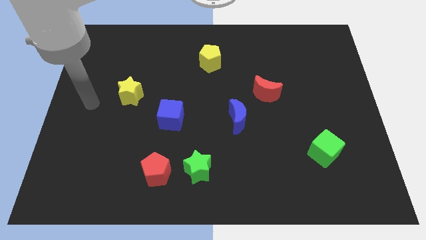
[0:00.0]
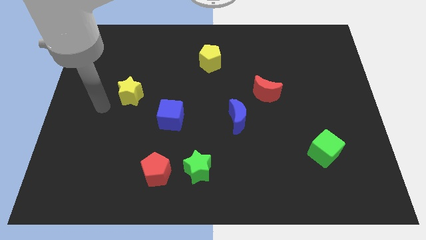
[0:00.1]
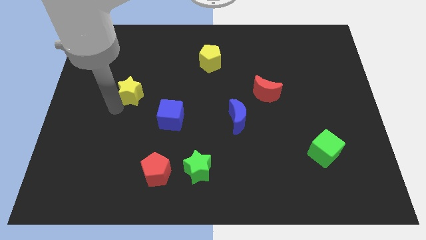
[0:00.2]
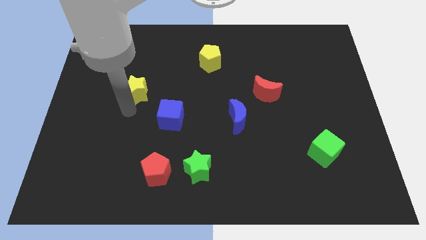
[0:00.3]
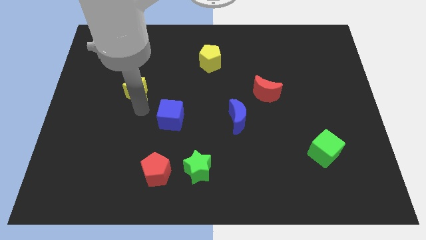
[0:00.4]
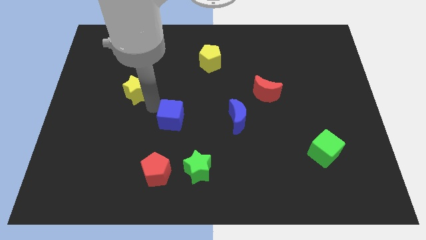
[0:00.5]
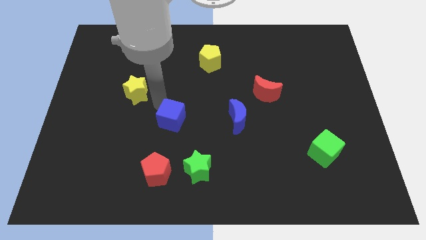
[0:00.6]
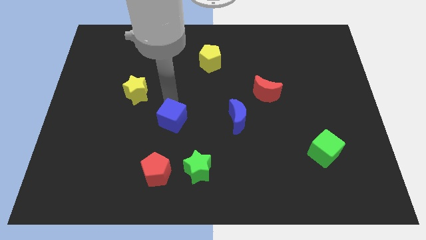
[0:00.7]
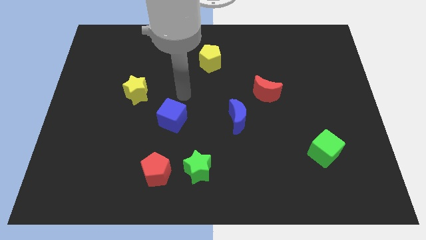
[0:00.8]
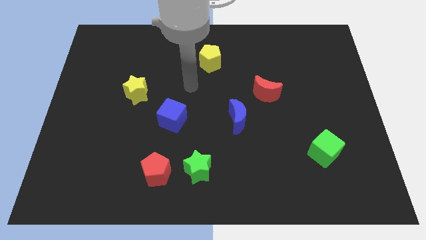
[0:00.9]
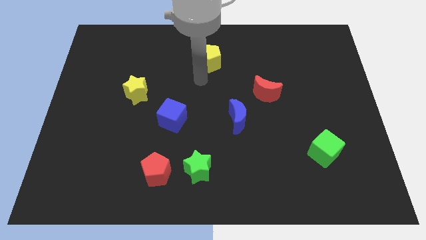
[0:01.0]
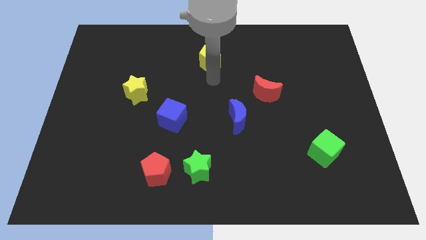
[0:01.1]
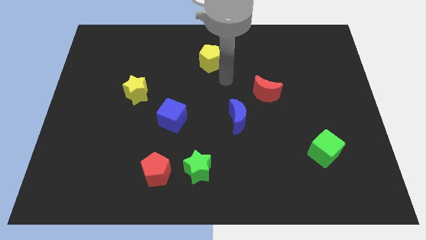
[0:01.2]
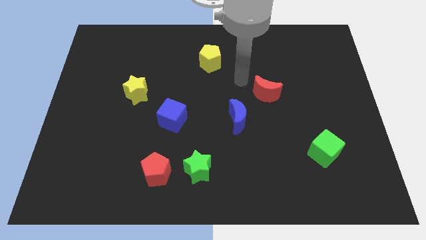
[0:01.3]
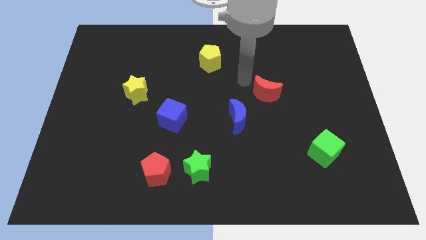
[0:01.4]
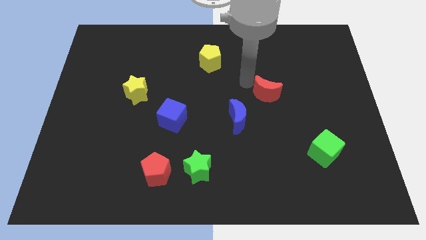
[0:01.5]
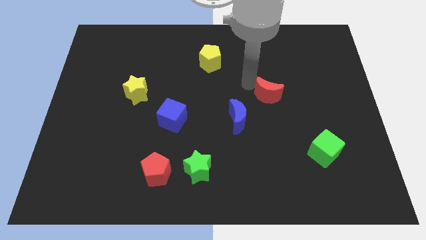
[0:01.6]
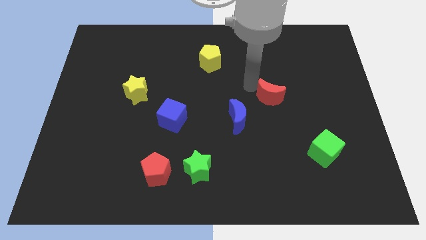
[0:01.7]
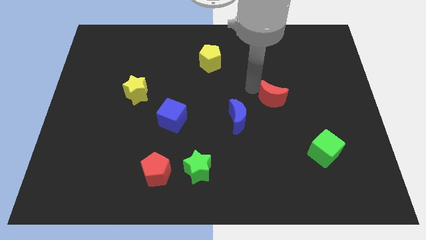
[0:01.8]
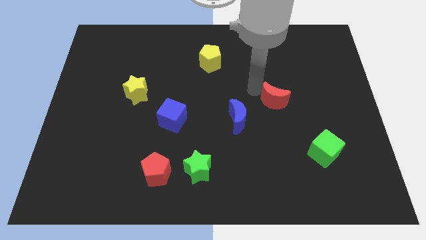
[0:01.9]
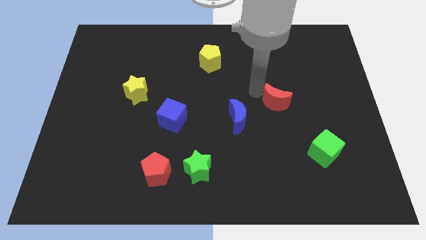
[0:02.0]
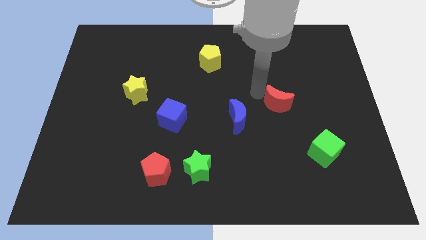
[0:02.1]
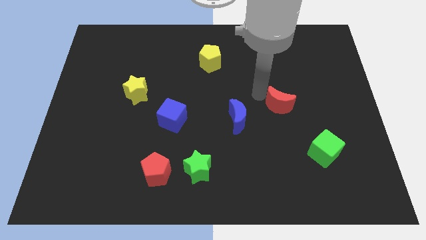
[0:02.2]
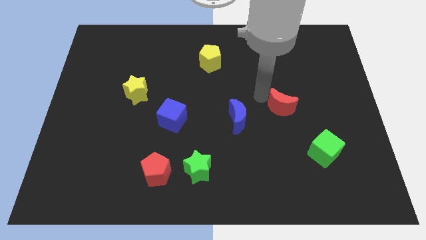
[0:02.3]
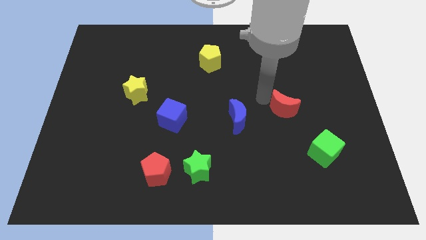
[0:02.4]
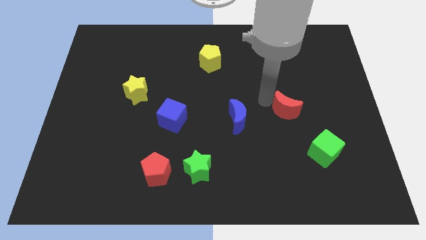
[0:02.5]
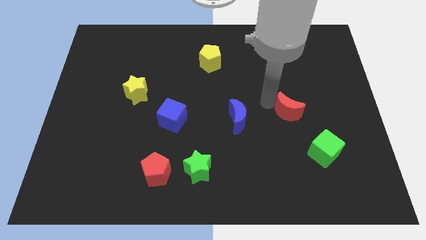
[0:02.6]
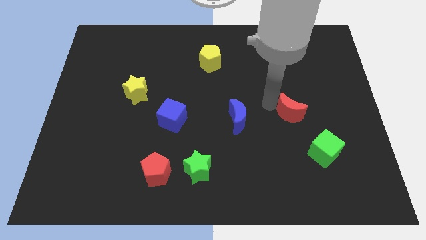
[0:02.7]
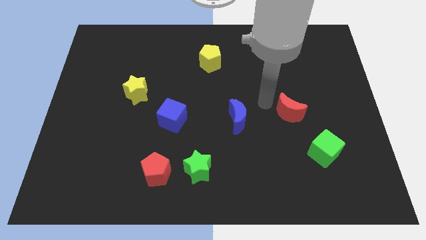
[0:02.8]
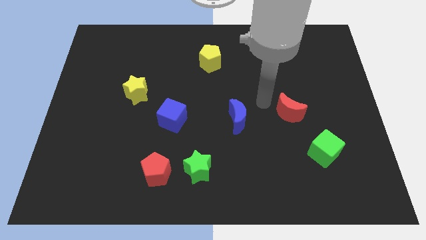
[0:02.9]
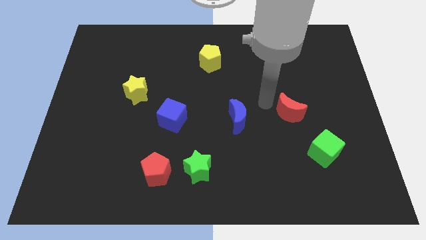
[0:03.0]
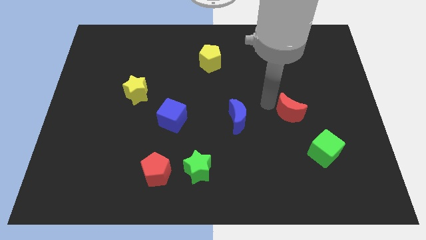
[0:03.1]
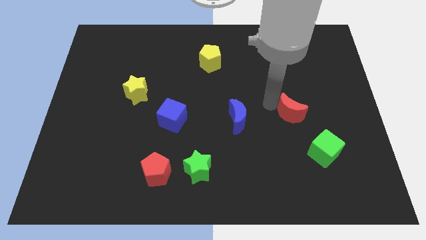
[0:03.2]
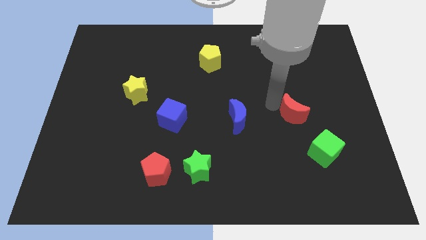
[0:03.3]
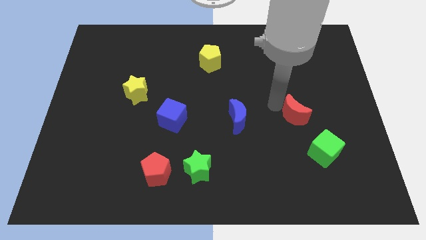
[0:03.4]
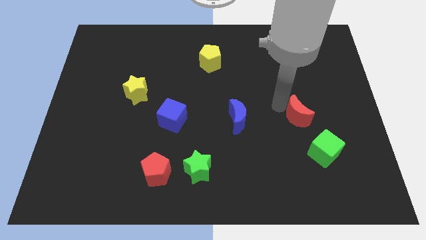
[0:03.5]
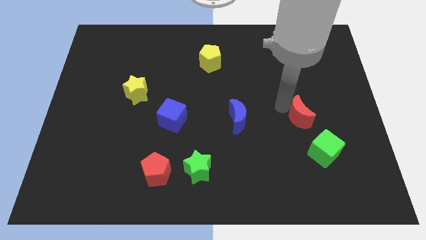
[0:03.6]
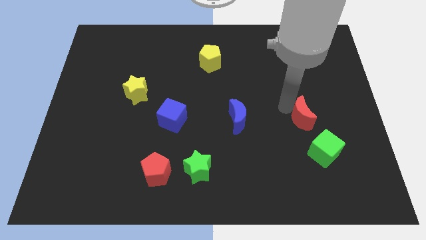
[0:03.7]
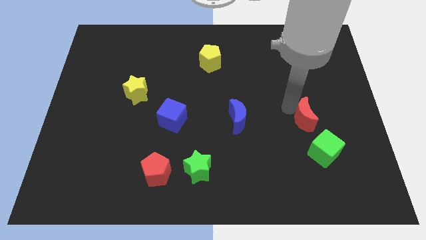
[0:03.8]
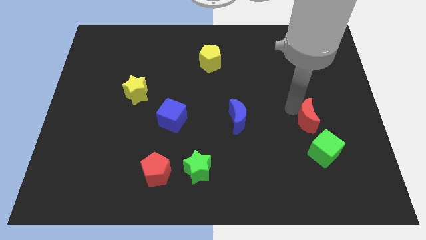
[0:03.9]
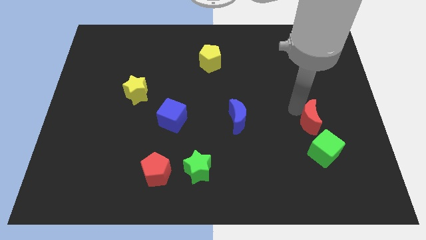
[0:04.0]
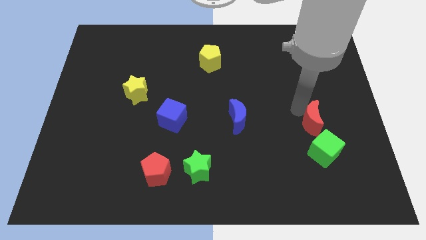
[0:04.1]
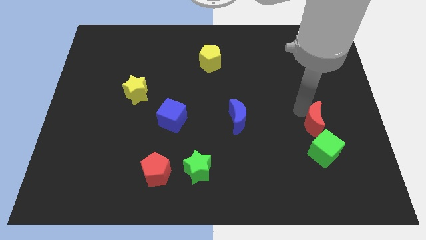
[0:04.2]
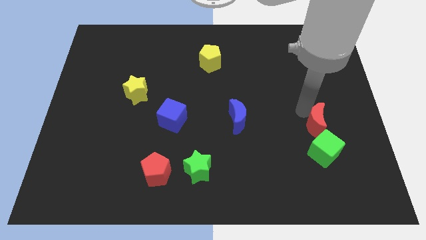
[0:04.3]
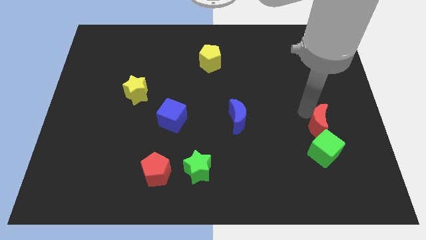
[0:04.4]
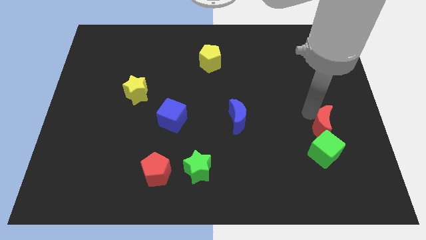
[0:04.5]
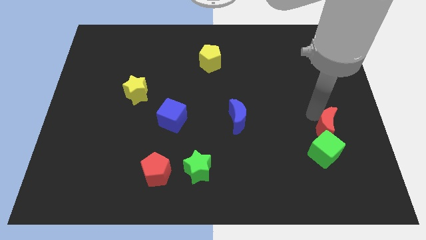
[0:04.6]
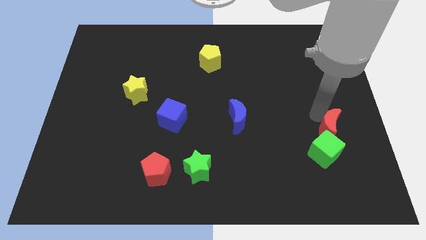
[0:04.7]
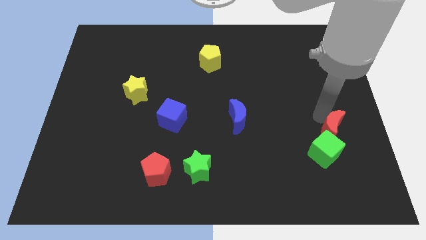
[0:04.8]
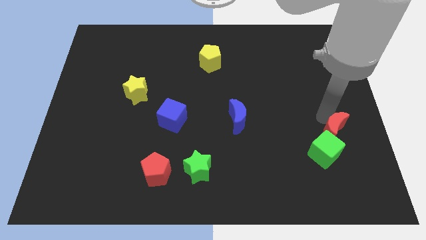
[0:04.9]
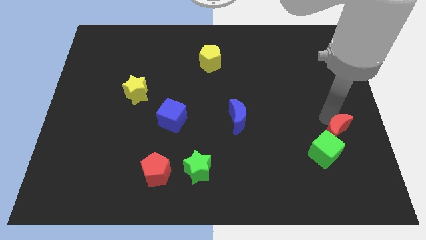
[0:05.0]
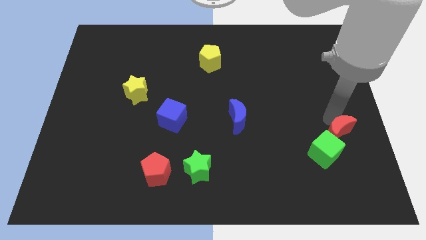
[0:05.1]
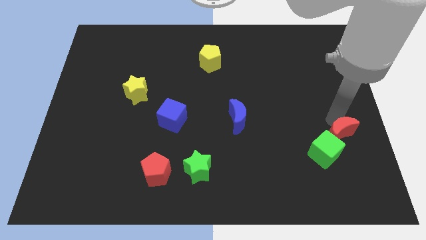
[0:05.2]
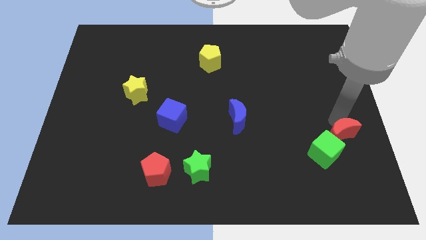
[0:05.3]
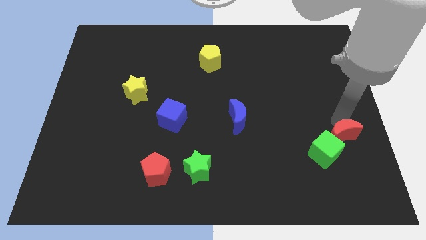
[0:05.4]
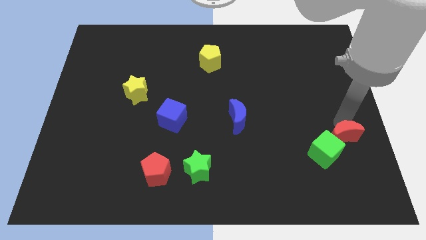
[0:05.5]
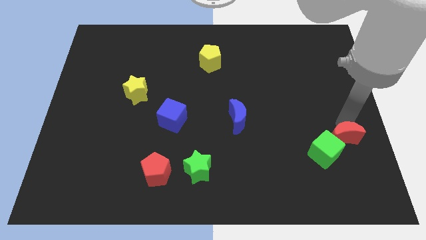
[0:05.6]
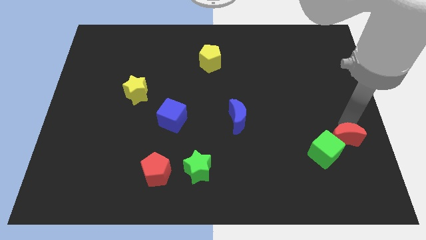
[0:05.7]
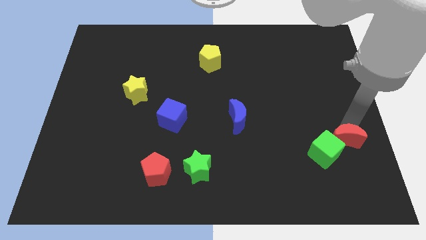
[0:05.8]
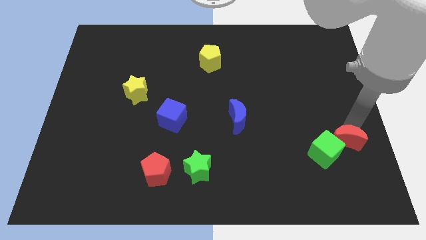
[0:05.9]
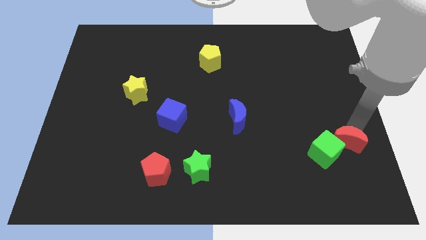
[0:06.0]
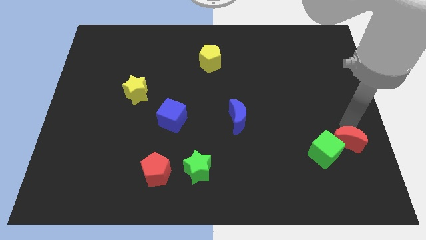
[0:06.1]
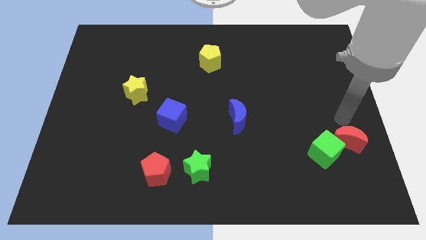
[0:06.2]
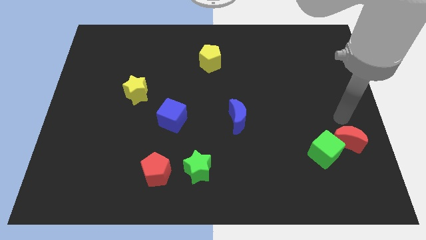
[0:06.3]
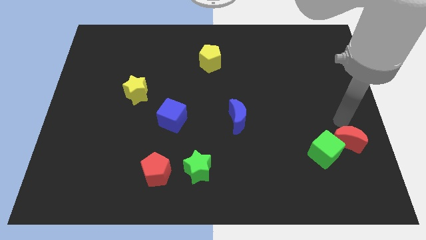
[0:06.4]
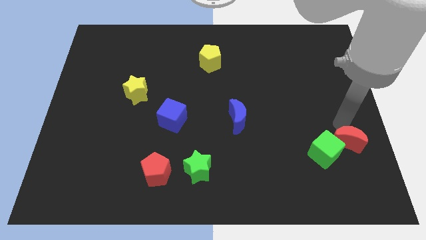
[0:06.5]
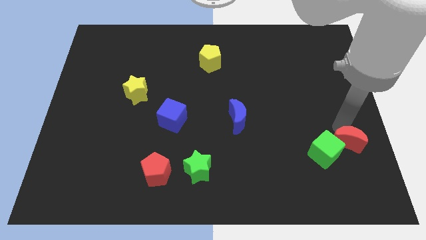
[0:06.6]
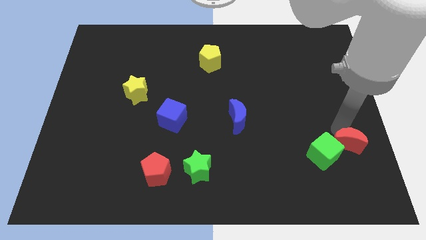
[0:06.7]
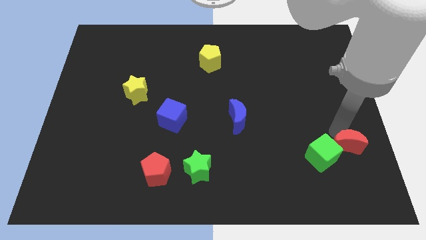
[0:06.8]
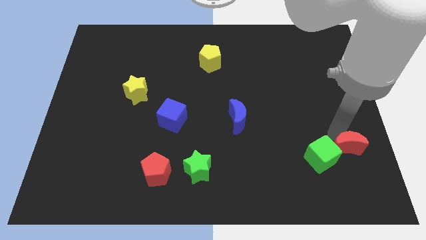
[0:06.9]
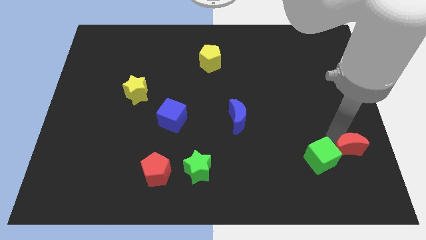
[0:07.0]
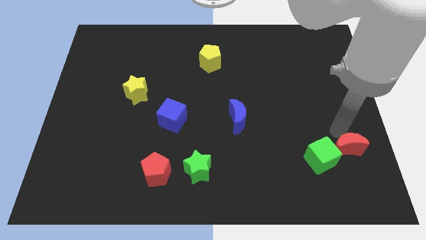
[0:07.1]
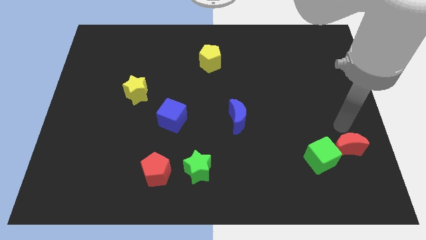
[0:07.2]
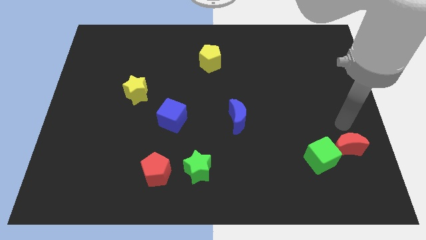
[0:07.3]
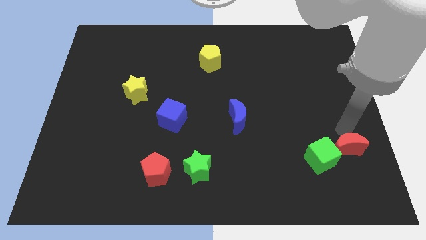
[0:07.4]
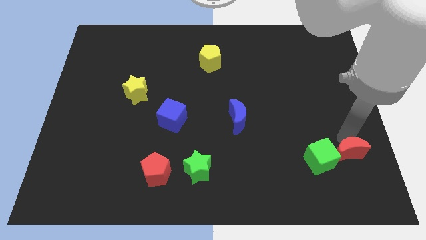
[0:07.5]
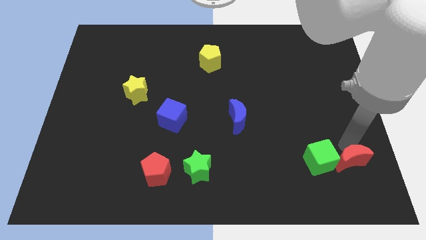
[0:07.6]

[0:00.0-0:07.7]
put the red moon to the bottom right of the green cube
